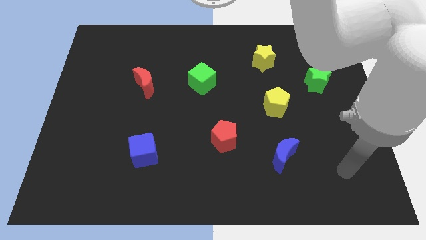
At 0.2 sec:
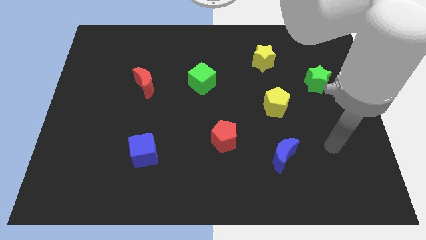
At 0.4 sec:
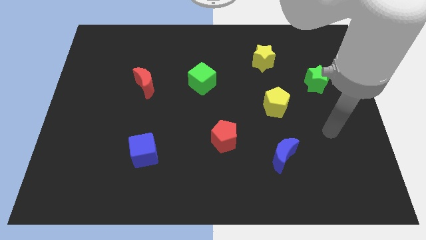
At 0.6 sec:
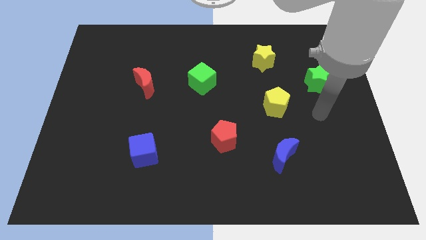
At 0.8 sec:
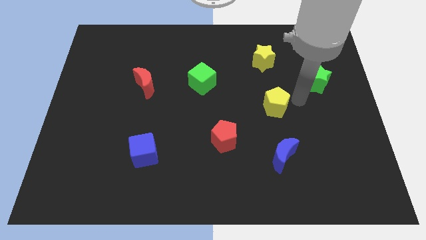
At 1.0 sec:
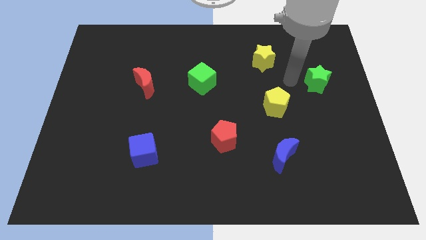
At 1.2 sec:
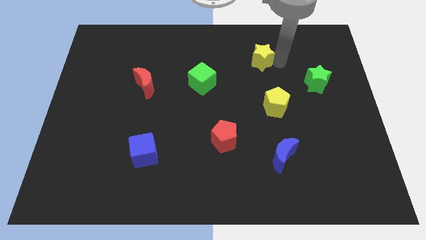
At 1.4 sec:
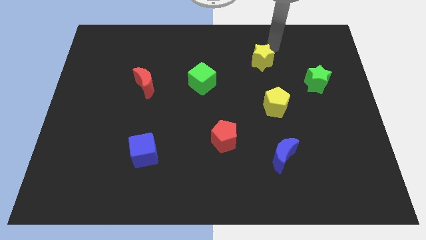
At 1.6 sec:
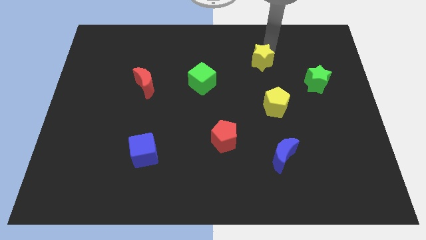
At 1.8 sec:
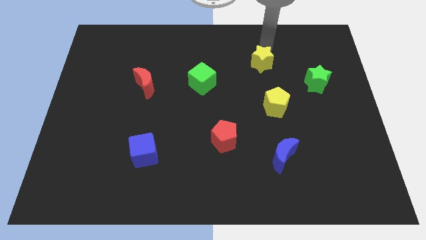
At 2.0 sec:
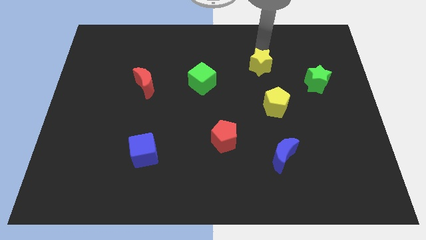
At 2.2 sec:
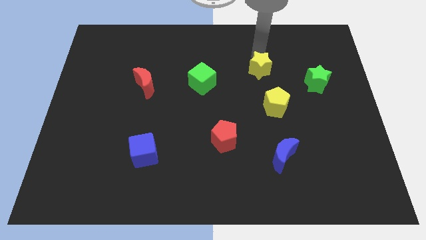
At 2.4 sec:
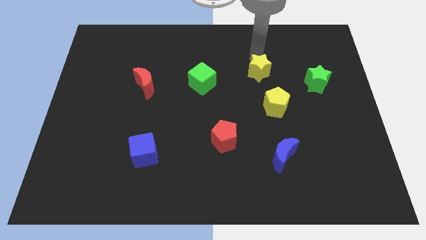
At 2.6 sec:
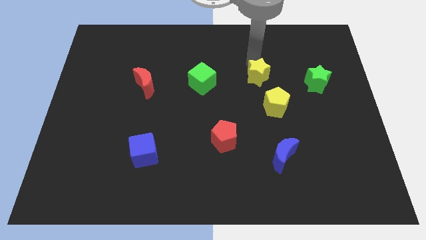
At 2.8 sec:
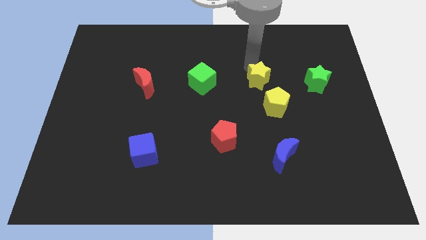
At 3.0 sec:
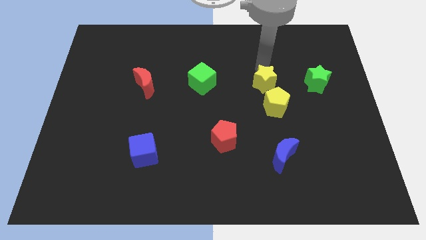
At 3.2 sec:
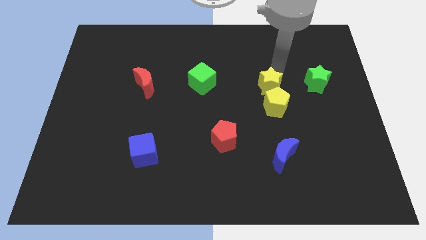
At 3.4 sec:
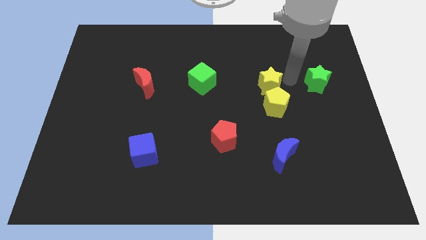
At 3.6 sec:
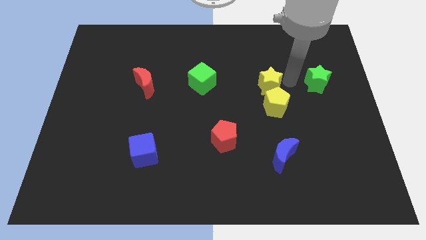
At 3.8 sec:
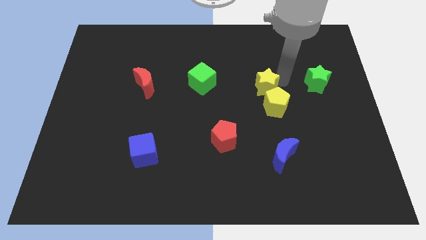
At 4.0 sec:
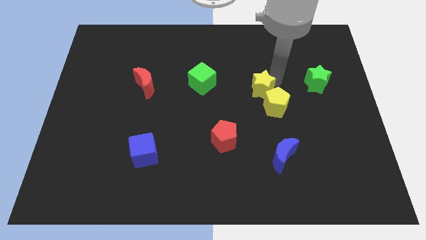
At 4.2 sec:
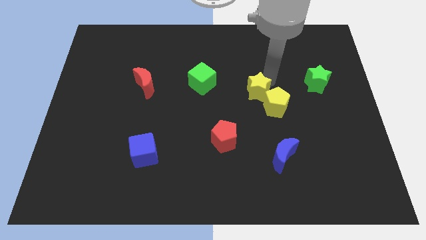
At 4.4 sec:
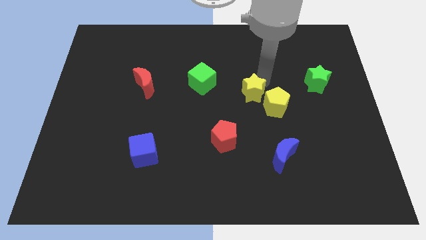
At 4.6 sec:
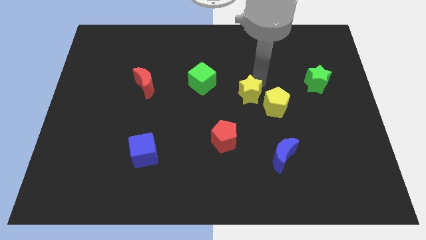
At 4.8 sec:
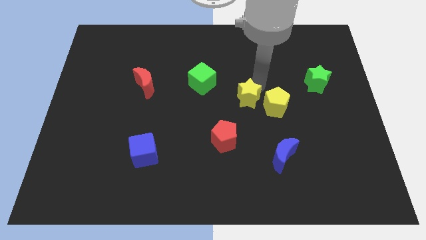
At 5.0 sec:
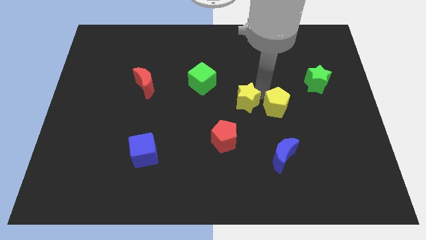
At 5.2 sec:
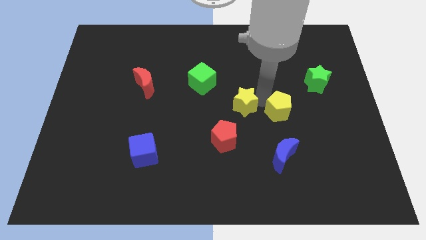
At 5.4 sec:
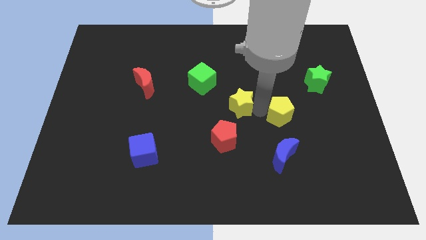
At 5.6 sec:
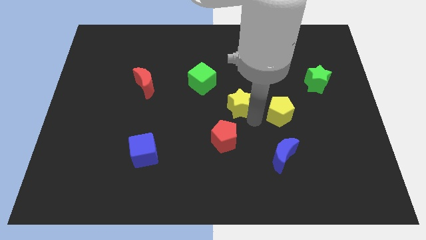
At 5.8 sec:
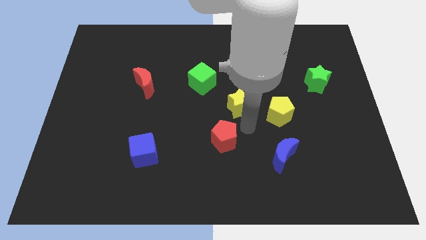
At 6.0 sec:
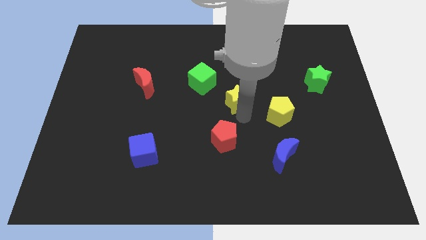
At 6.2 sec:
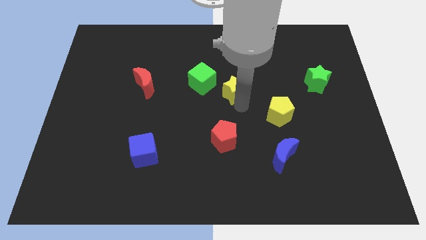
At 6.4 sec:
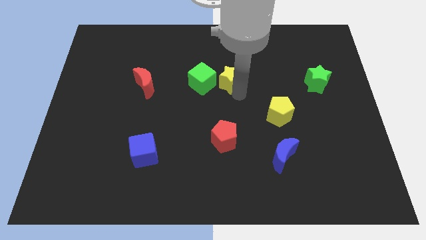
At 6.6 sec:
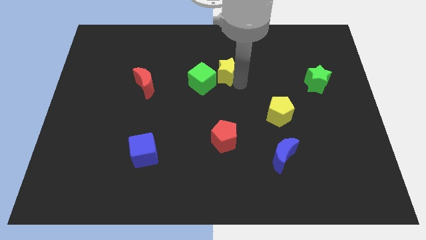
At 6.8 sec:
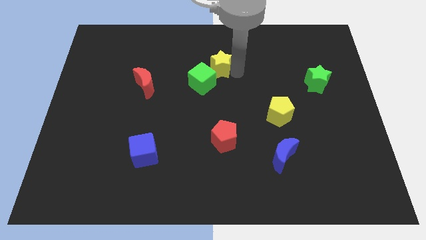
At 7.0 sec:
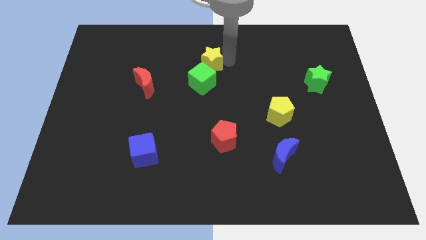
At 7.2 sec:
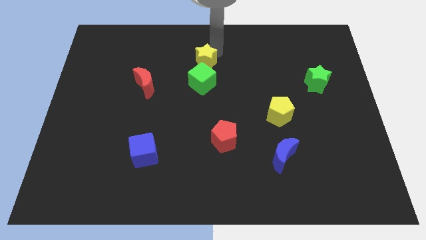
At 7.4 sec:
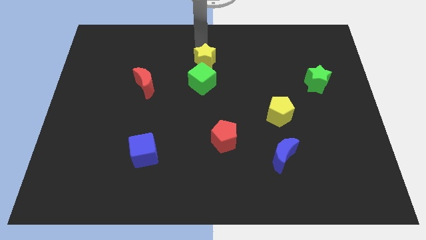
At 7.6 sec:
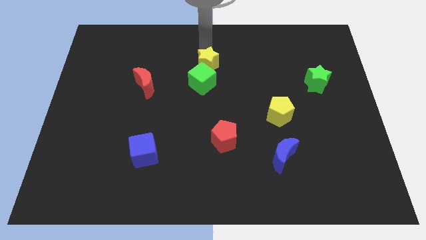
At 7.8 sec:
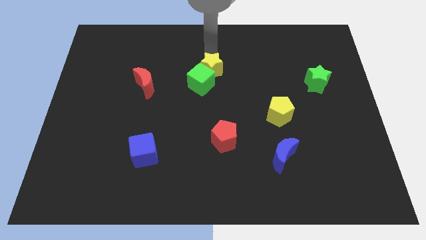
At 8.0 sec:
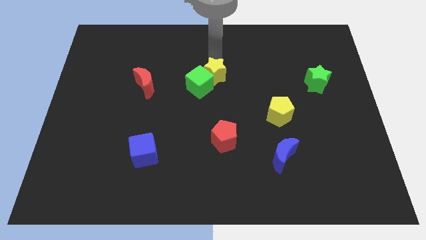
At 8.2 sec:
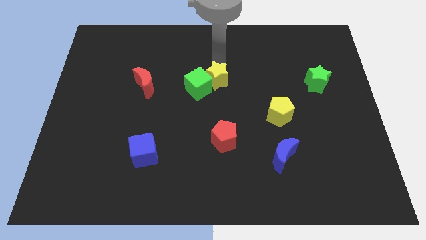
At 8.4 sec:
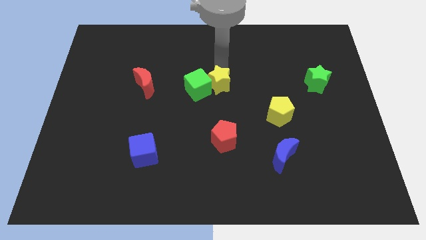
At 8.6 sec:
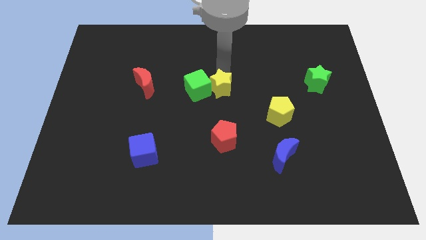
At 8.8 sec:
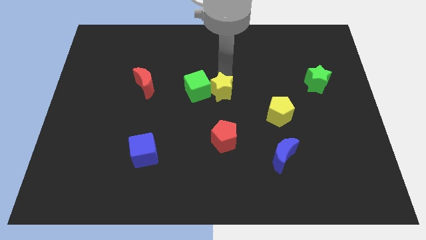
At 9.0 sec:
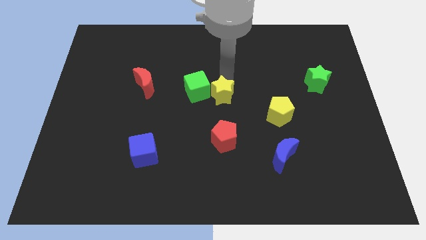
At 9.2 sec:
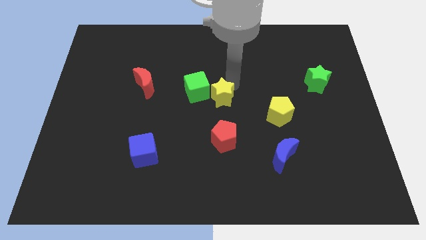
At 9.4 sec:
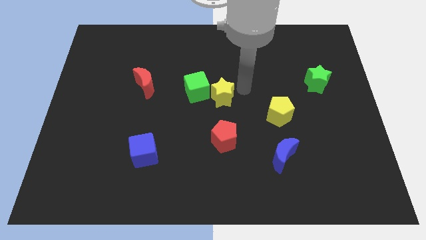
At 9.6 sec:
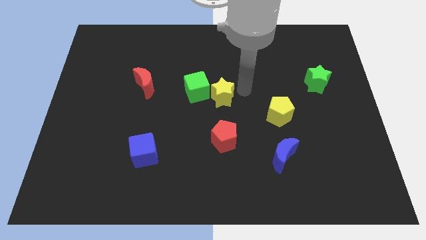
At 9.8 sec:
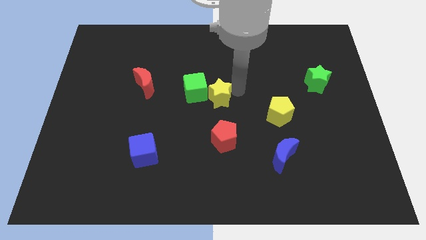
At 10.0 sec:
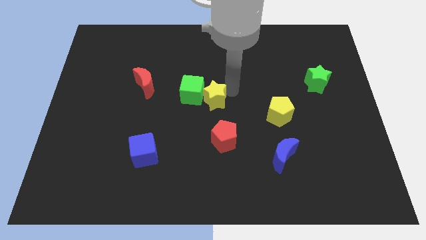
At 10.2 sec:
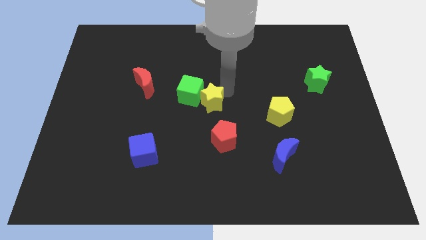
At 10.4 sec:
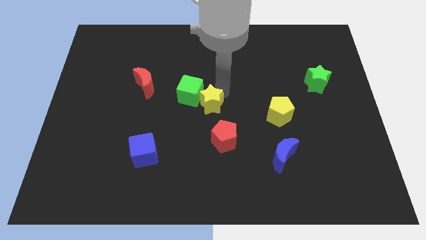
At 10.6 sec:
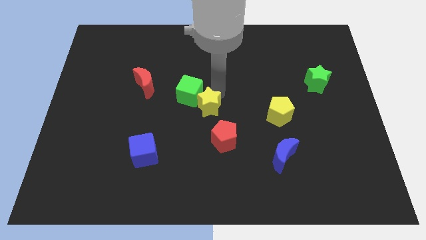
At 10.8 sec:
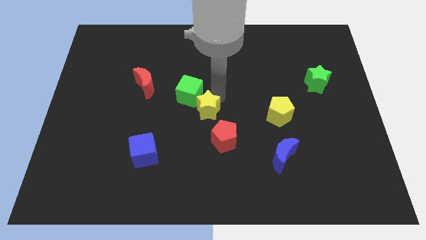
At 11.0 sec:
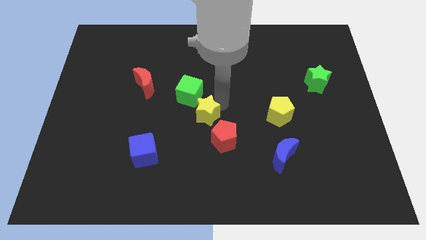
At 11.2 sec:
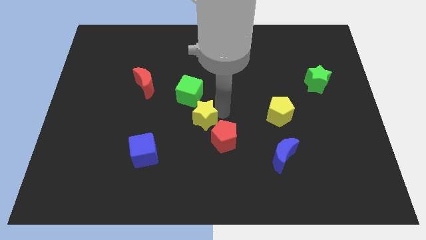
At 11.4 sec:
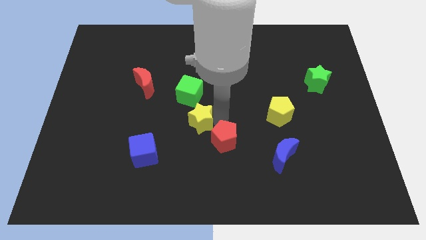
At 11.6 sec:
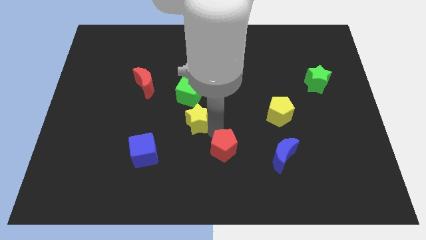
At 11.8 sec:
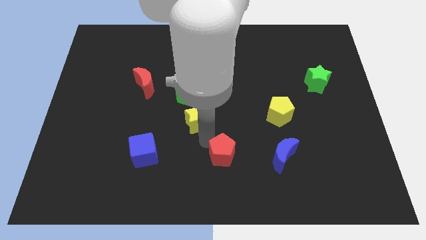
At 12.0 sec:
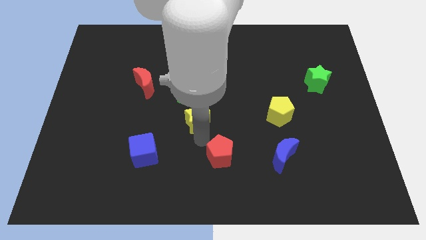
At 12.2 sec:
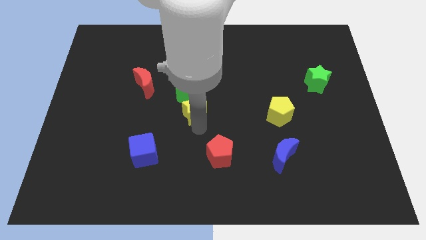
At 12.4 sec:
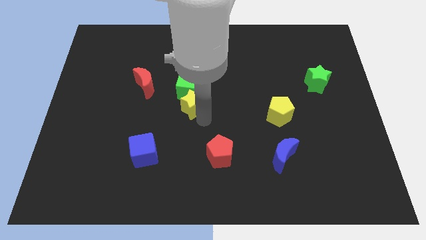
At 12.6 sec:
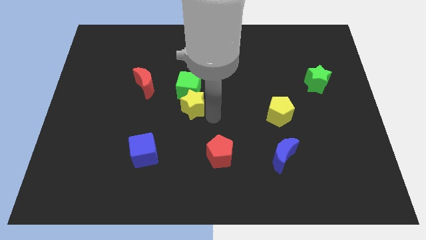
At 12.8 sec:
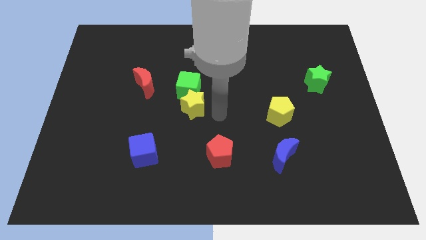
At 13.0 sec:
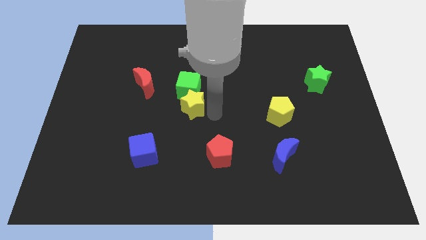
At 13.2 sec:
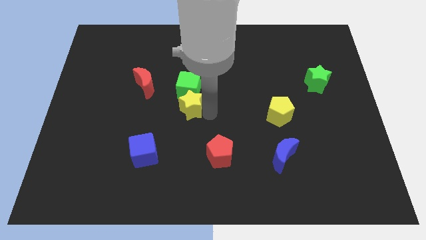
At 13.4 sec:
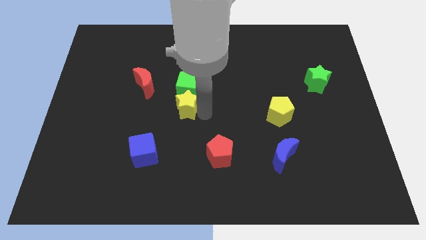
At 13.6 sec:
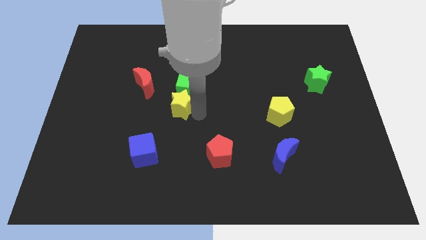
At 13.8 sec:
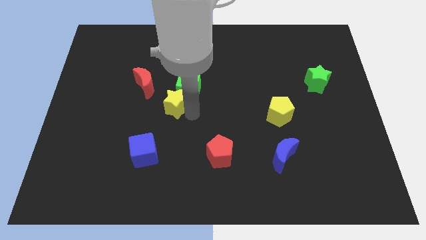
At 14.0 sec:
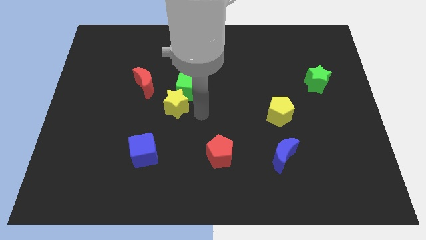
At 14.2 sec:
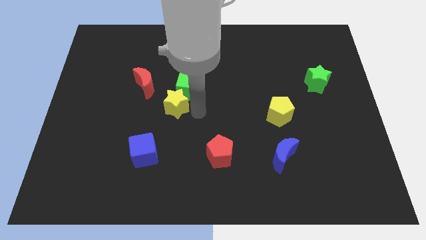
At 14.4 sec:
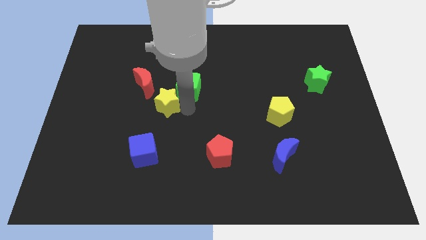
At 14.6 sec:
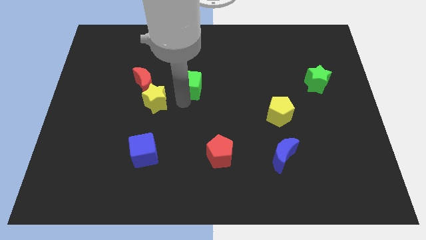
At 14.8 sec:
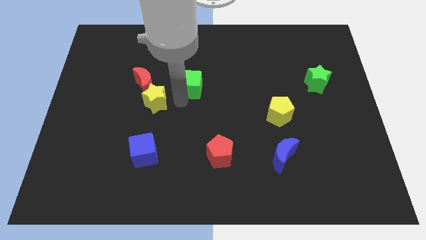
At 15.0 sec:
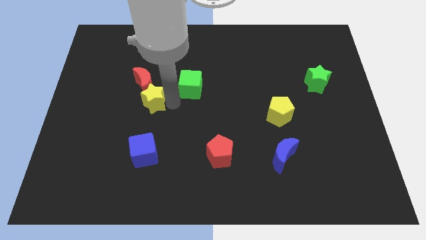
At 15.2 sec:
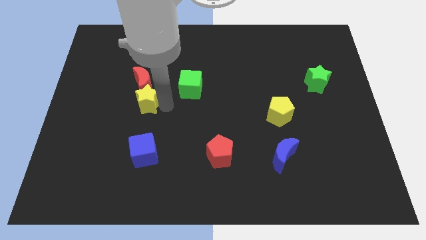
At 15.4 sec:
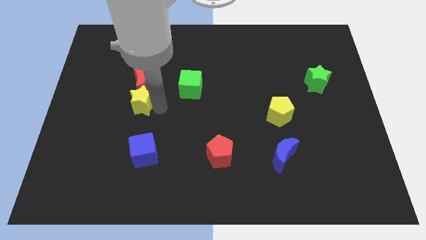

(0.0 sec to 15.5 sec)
push the yellow star to the bottom left side of the red moon
